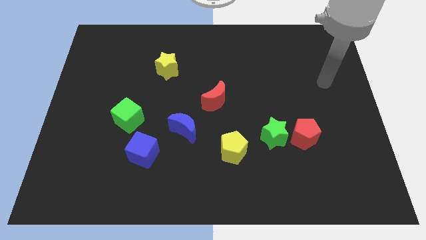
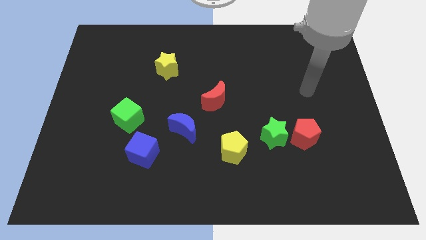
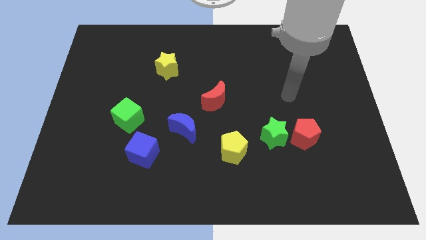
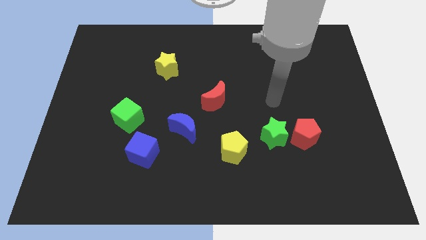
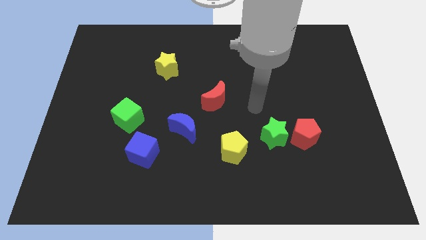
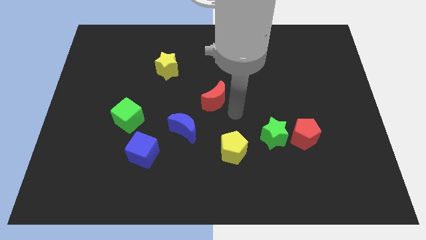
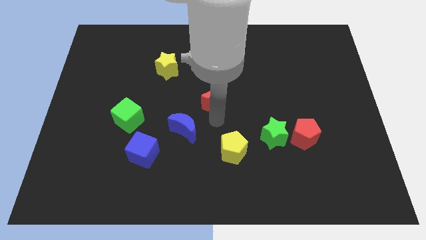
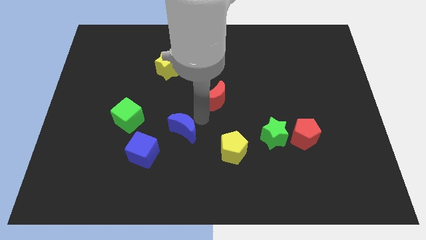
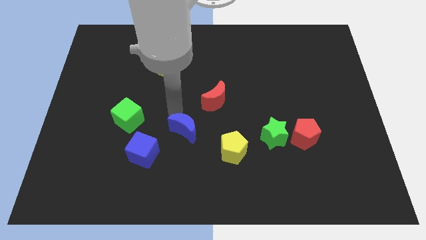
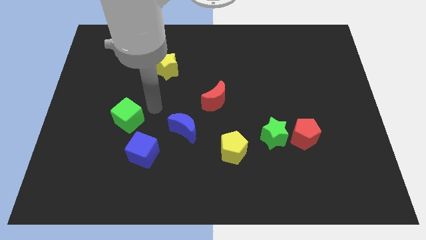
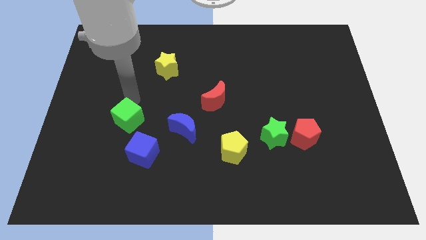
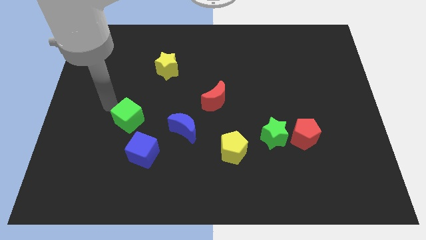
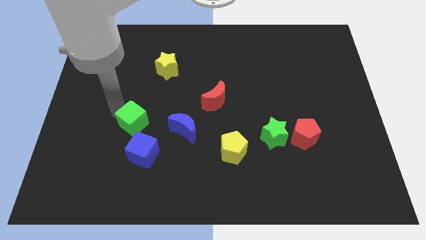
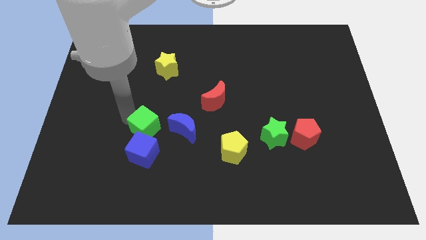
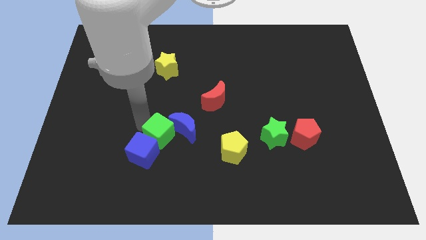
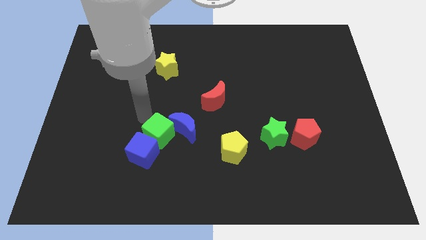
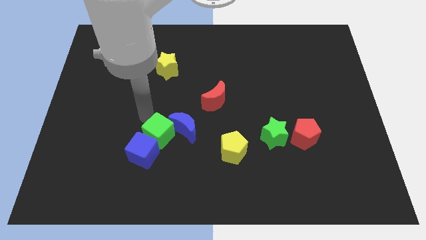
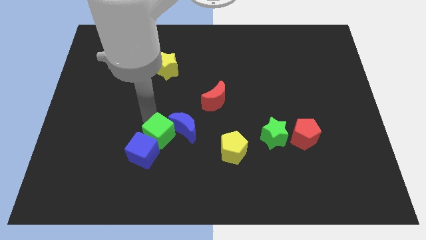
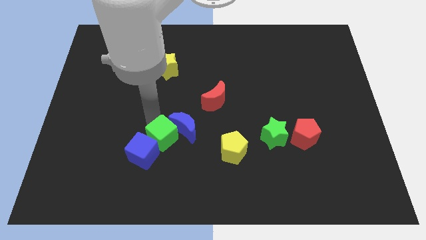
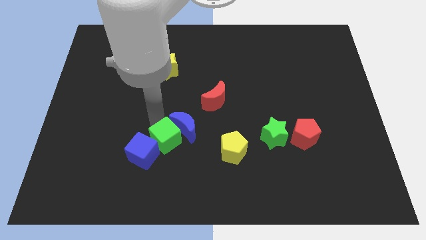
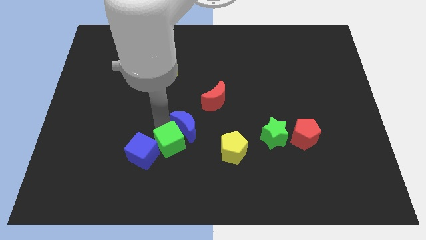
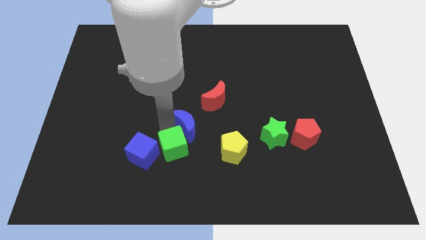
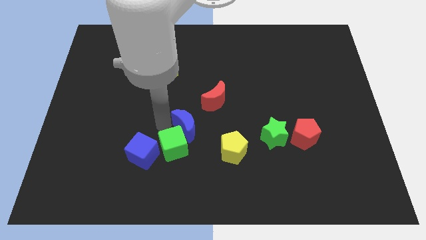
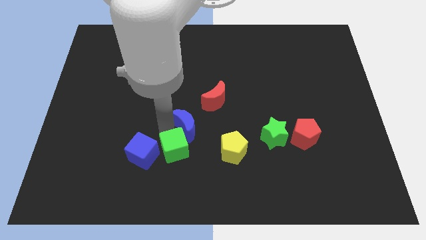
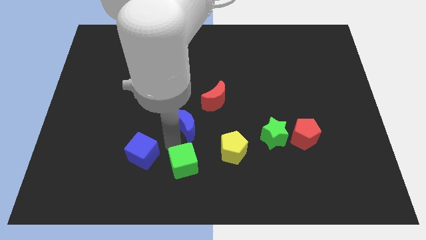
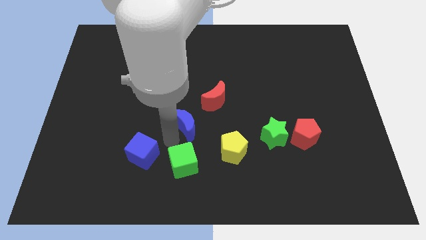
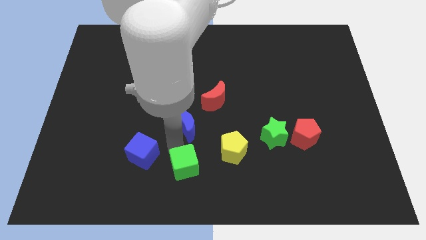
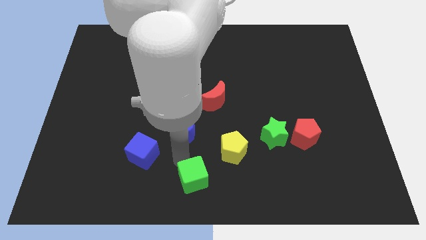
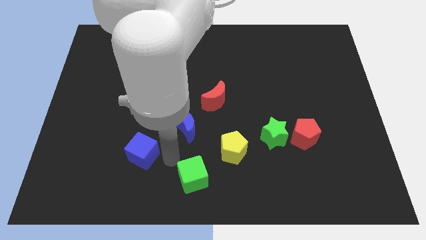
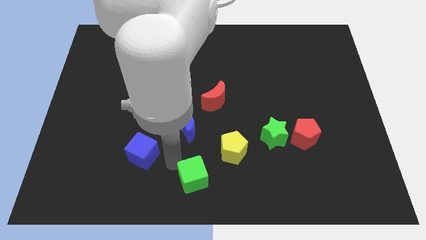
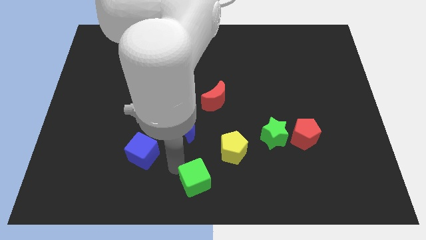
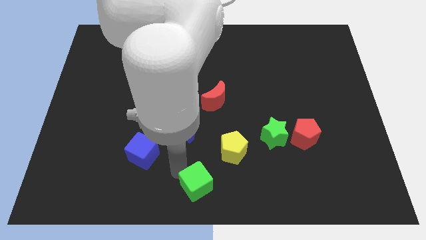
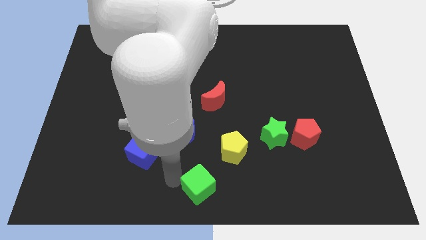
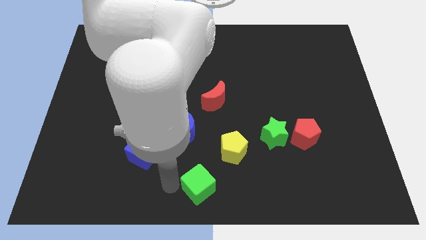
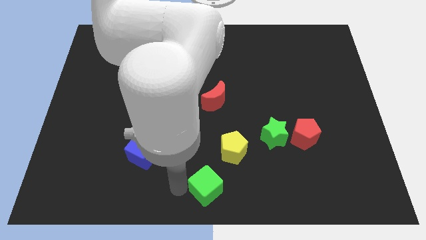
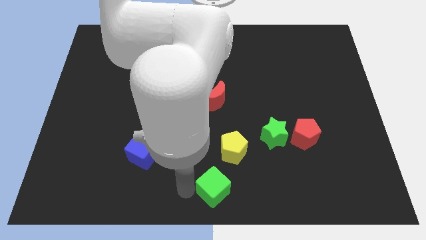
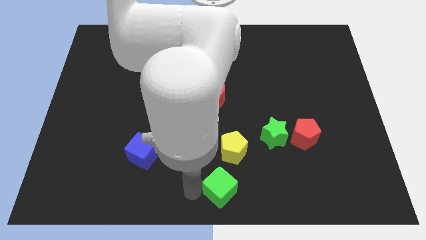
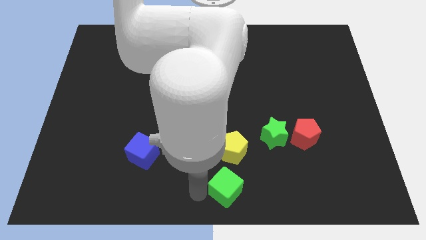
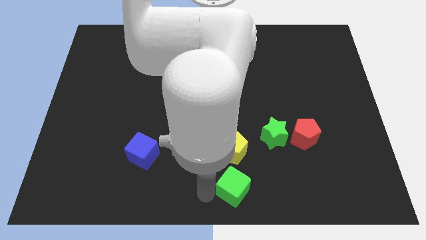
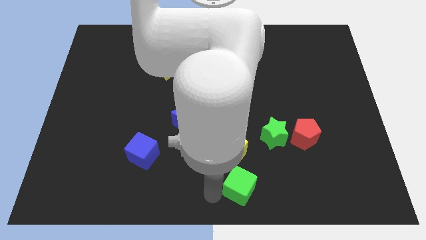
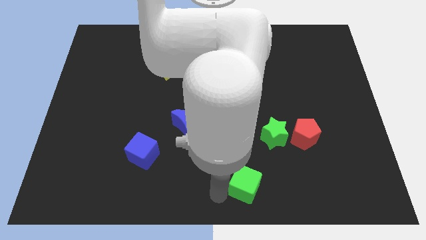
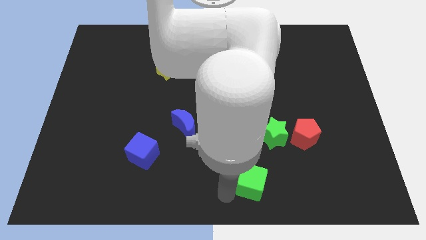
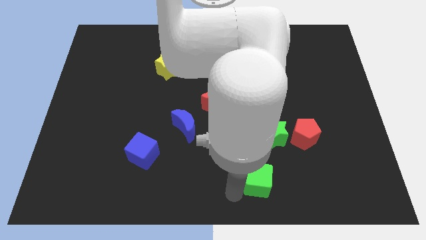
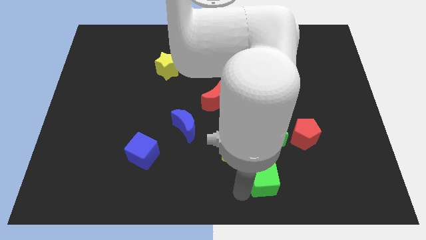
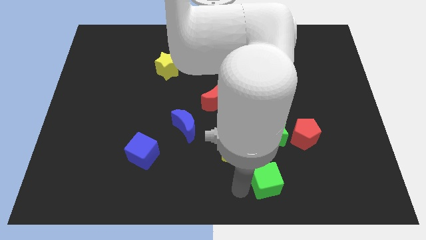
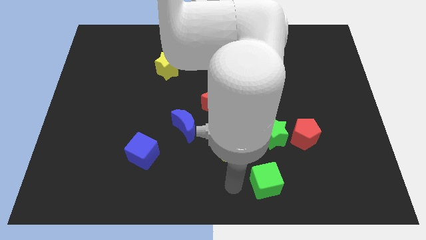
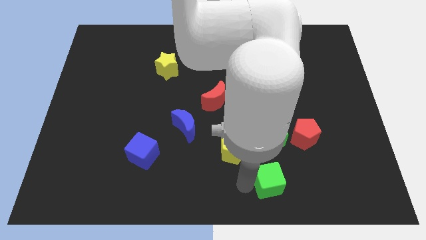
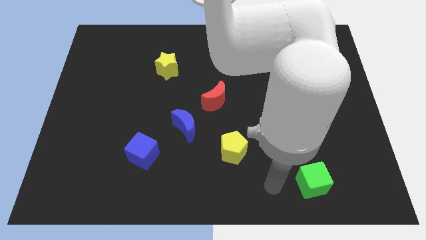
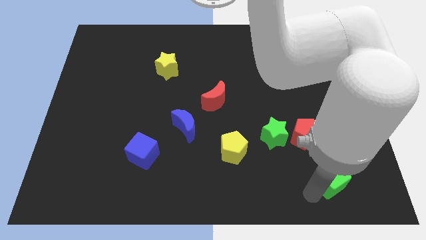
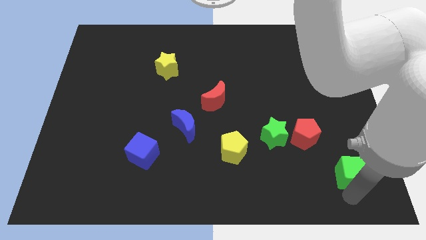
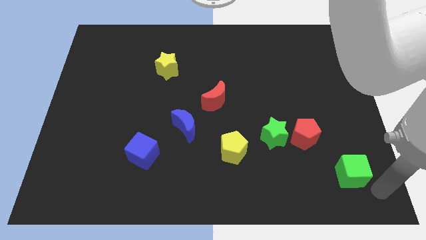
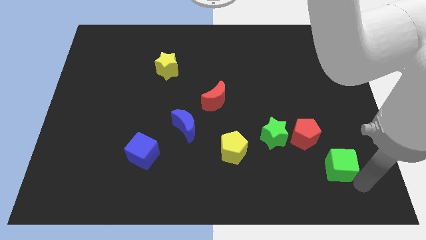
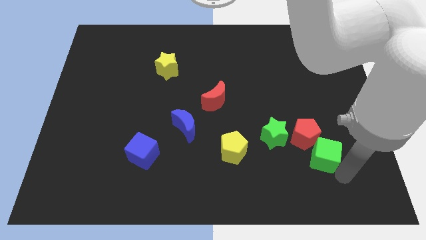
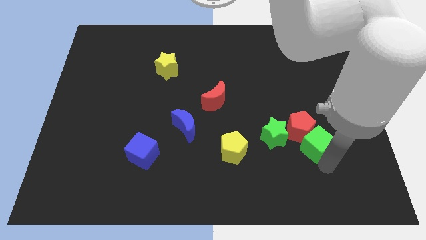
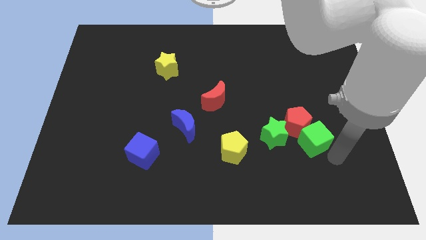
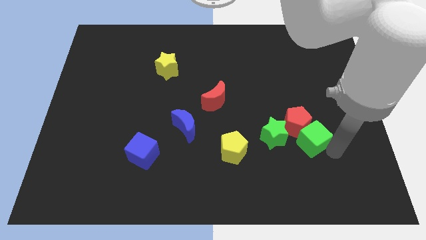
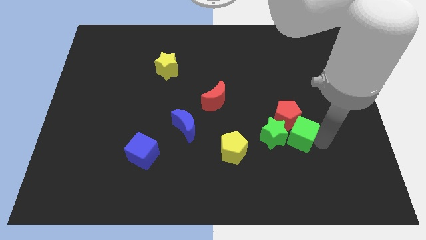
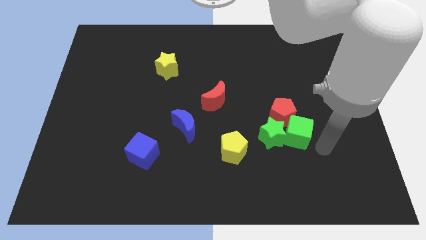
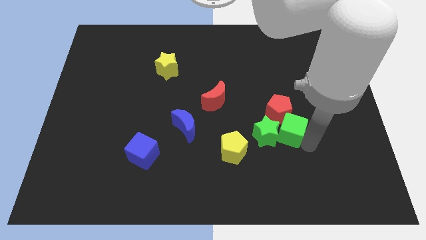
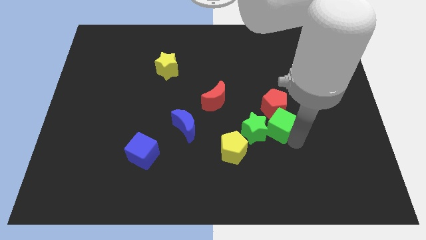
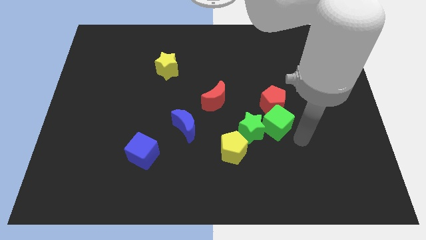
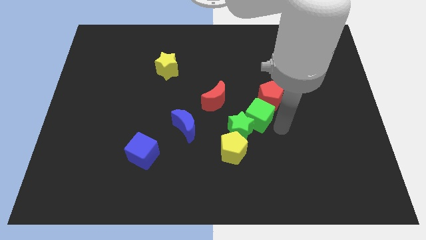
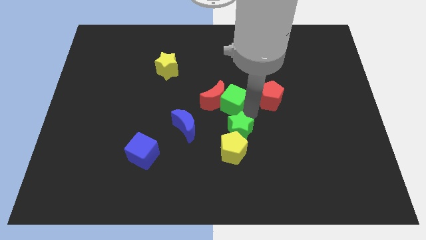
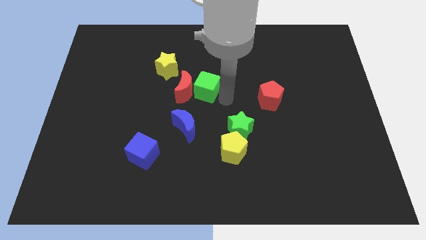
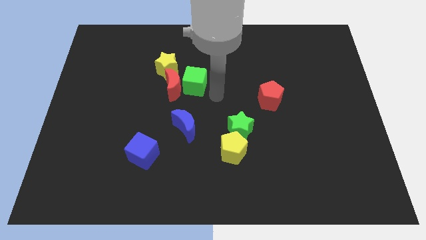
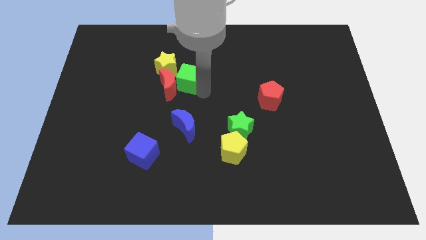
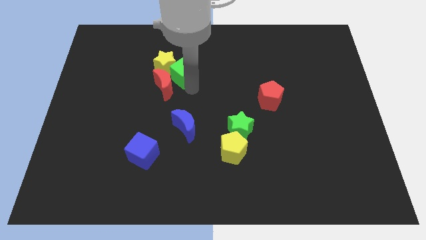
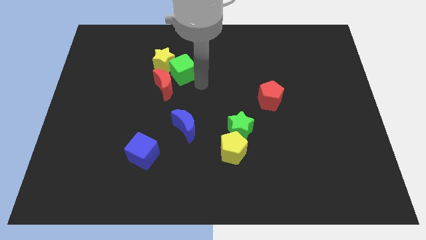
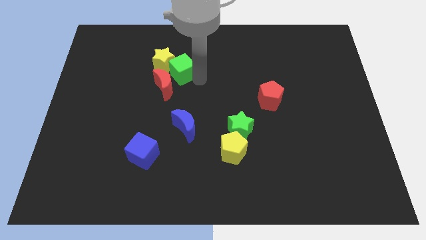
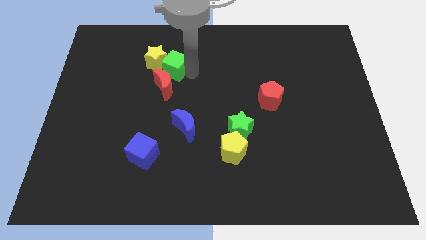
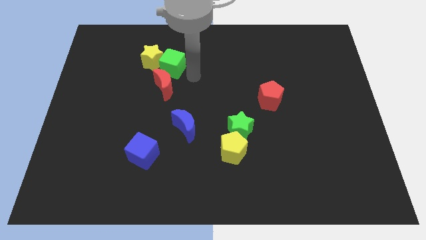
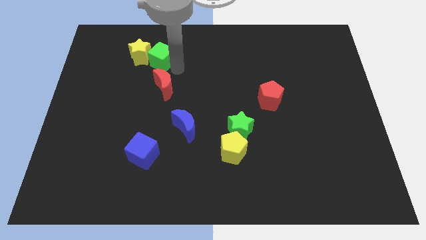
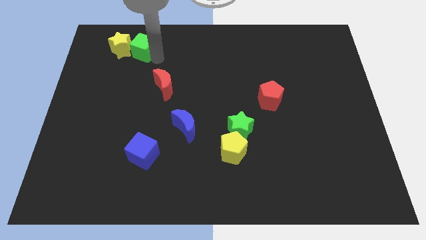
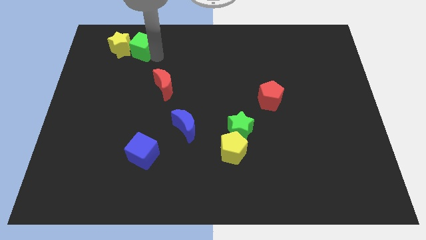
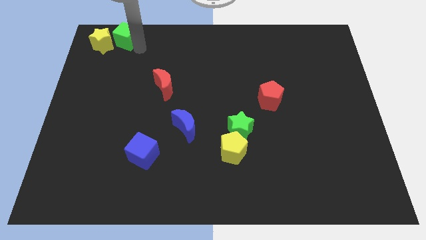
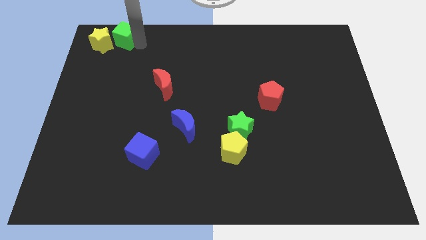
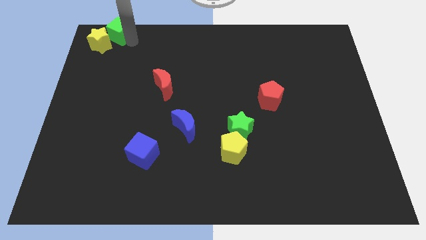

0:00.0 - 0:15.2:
slide the green cube to the top left of the board
